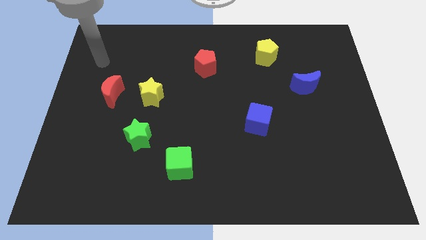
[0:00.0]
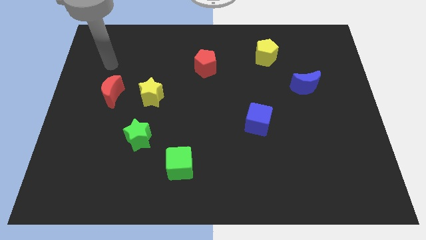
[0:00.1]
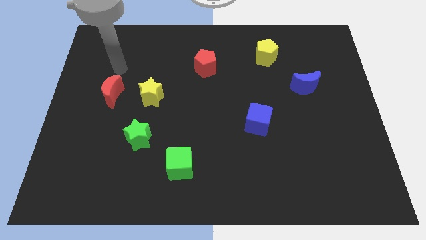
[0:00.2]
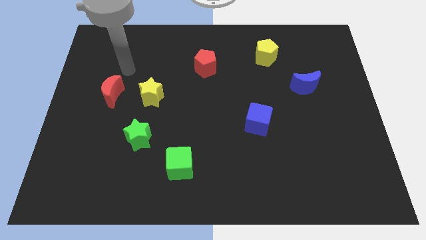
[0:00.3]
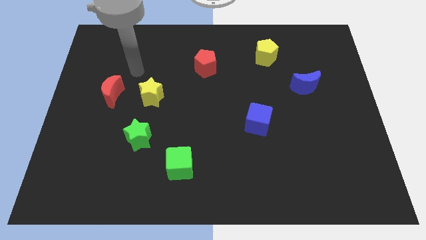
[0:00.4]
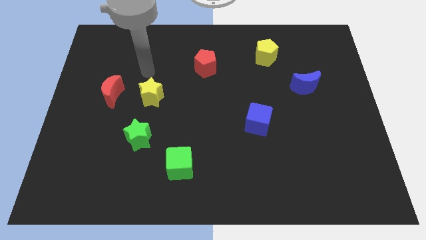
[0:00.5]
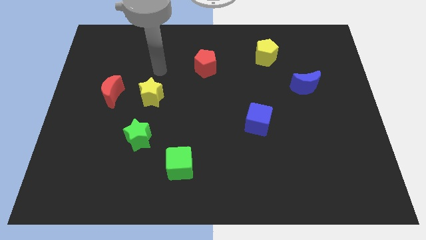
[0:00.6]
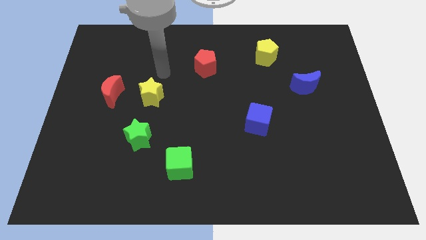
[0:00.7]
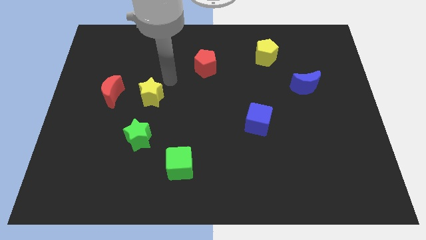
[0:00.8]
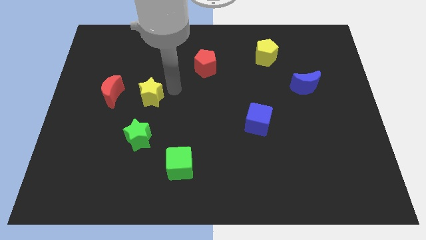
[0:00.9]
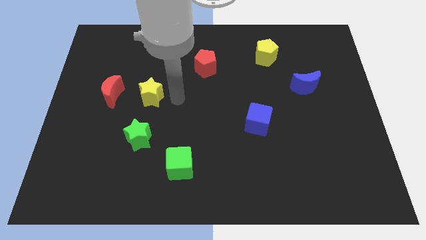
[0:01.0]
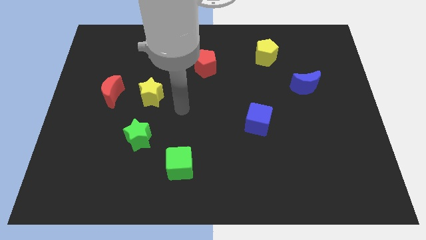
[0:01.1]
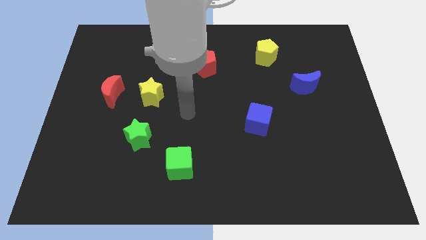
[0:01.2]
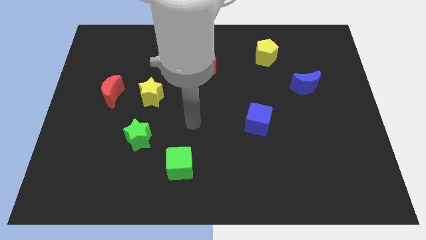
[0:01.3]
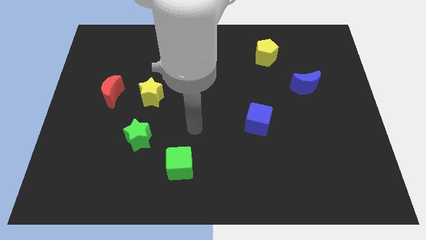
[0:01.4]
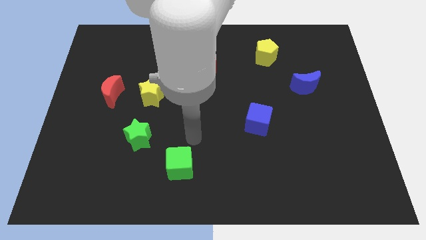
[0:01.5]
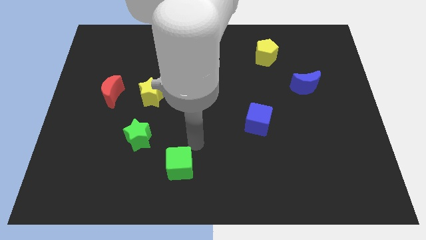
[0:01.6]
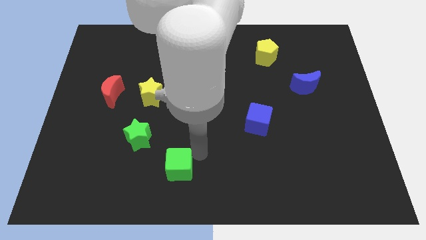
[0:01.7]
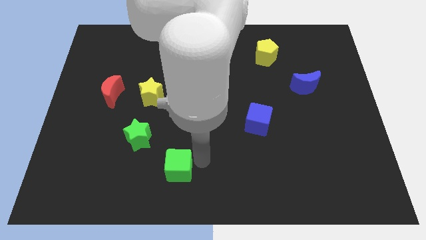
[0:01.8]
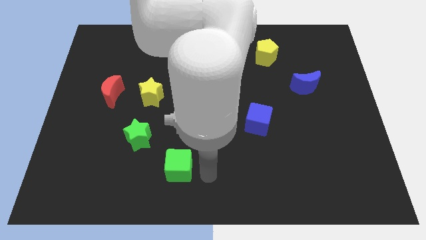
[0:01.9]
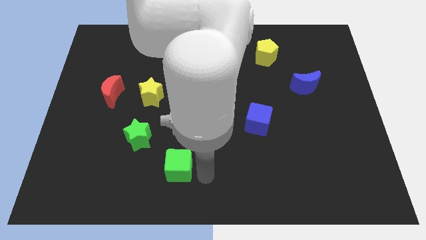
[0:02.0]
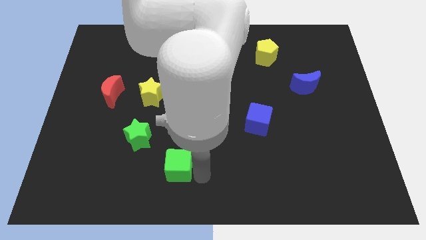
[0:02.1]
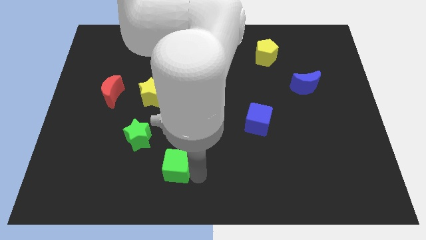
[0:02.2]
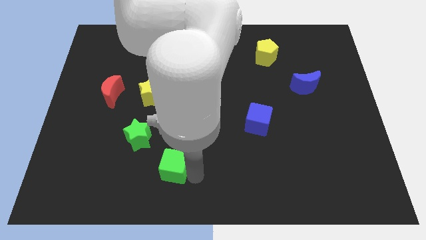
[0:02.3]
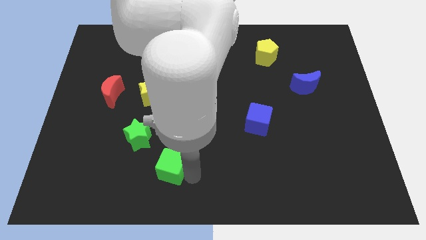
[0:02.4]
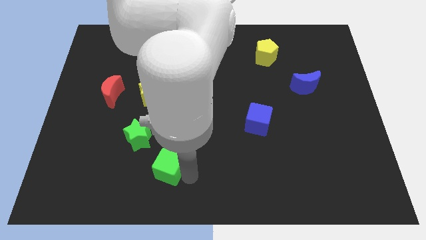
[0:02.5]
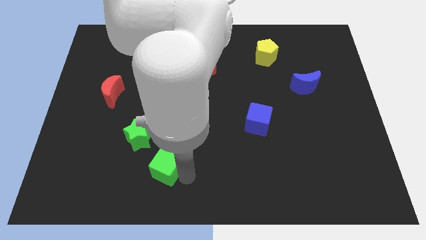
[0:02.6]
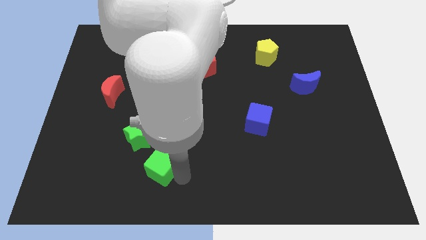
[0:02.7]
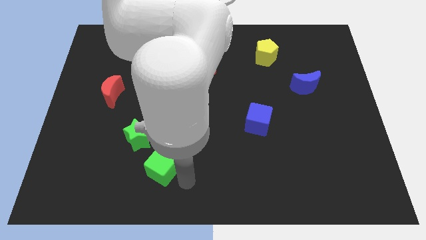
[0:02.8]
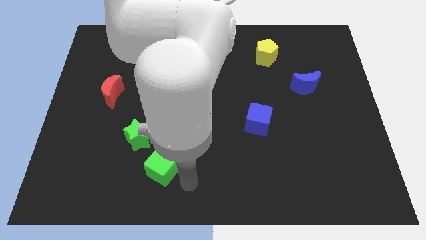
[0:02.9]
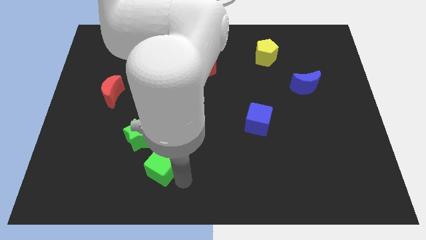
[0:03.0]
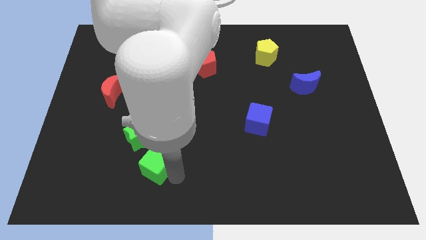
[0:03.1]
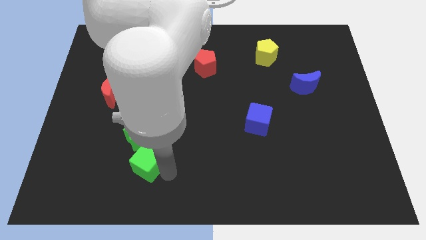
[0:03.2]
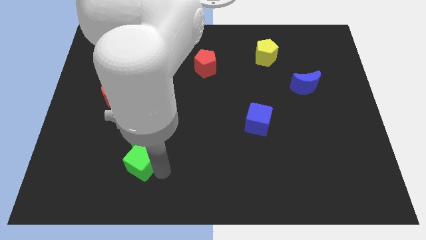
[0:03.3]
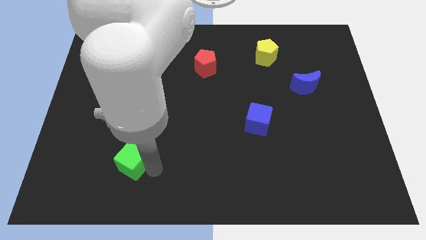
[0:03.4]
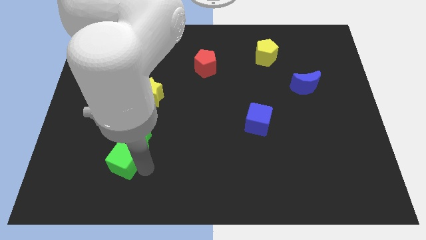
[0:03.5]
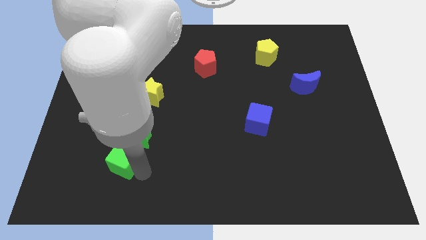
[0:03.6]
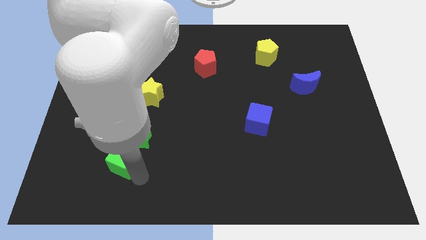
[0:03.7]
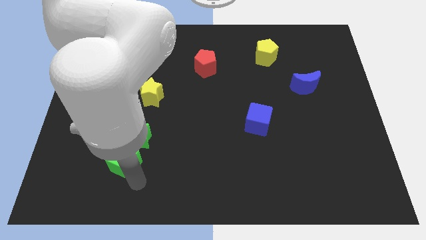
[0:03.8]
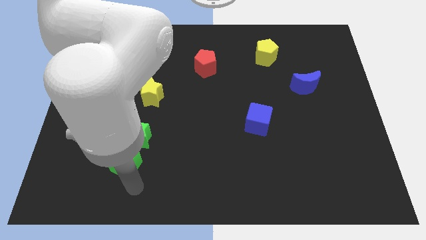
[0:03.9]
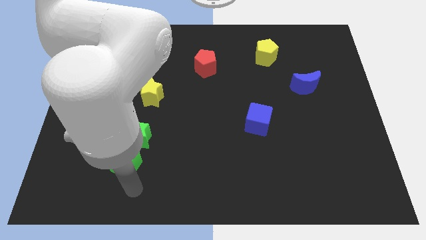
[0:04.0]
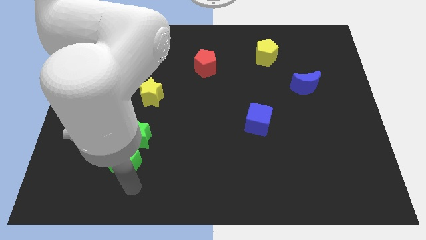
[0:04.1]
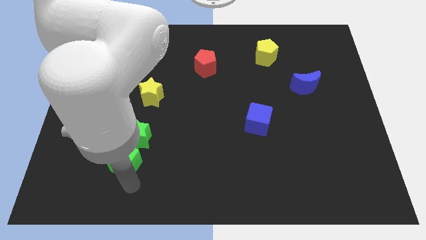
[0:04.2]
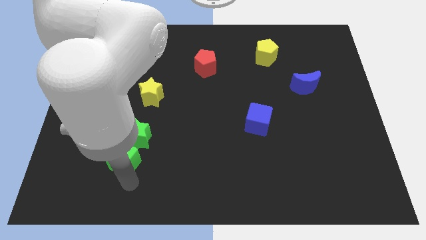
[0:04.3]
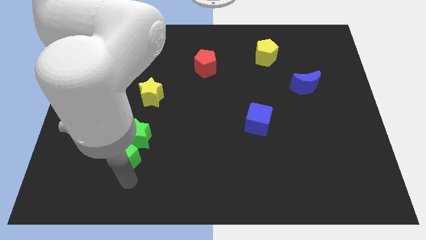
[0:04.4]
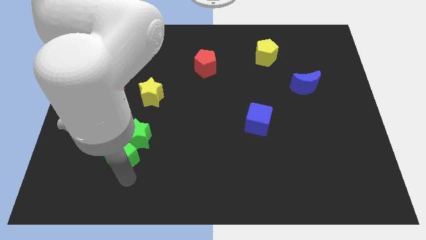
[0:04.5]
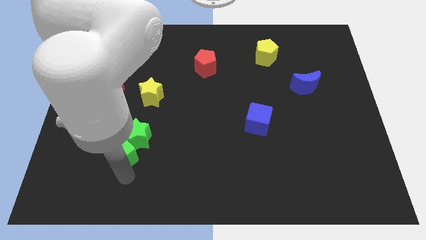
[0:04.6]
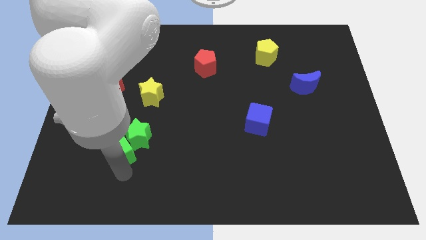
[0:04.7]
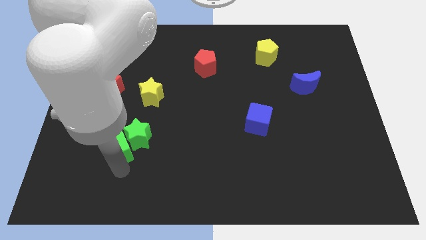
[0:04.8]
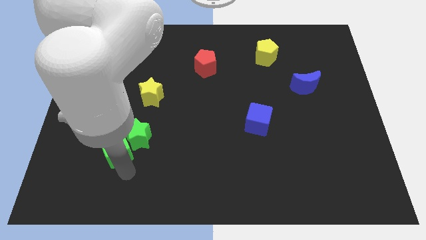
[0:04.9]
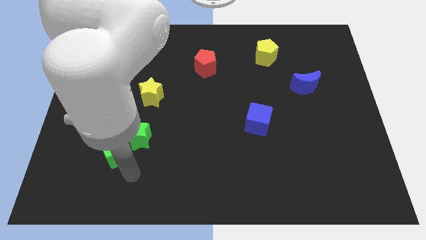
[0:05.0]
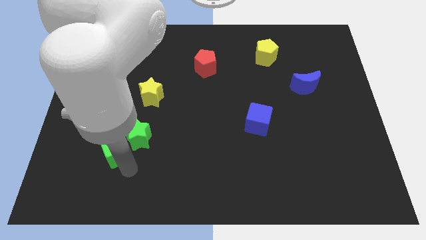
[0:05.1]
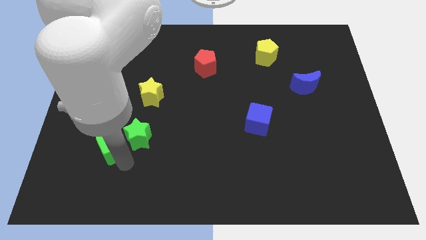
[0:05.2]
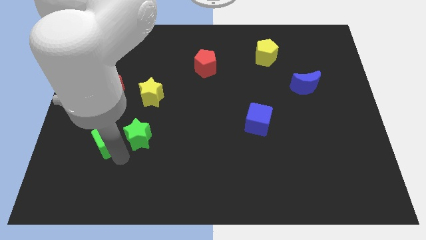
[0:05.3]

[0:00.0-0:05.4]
put the green cube to the bottom side of the red moon

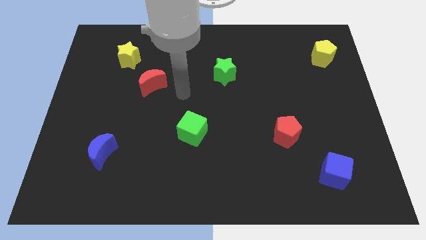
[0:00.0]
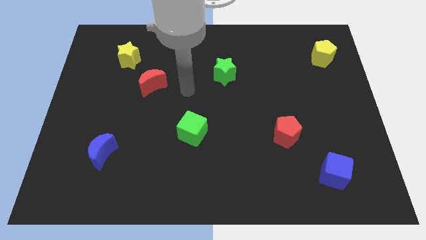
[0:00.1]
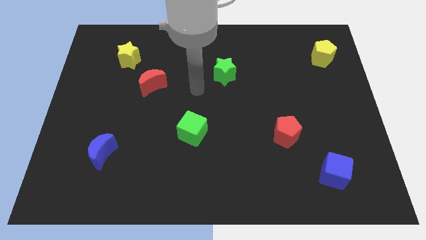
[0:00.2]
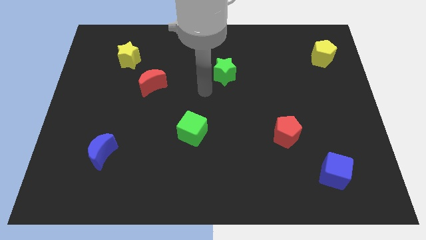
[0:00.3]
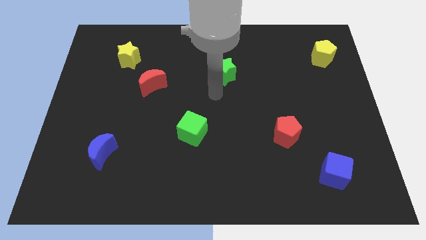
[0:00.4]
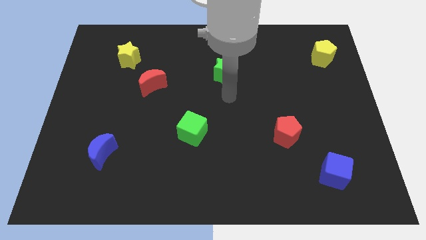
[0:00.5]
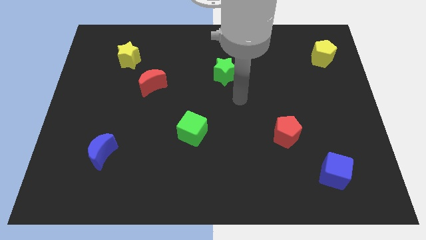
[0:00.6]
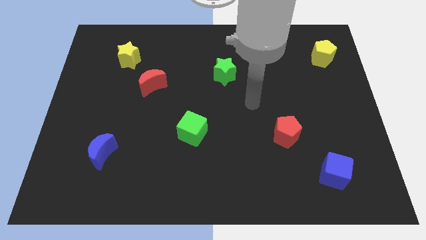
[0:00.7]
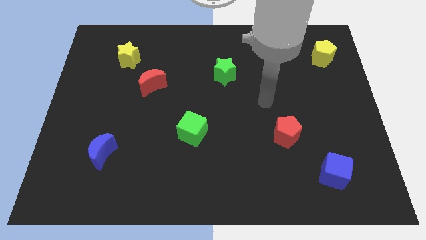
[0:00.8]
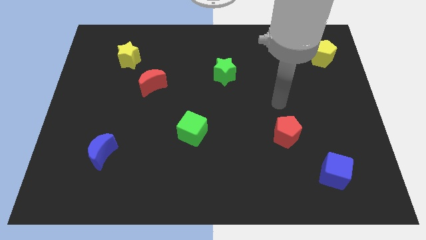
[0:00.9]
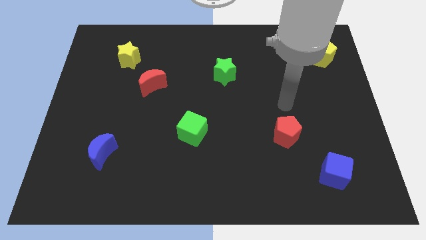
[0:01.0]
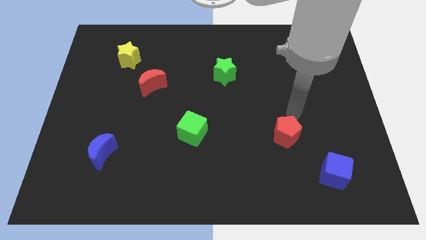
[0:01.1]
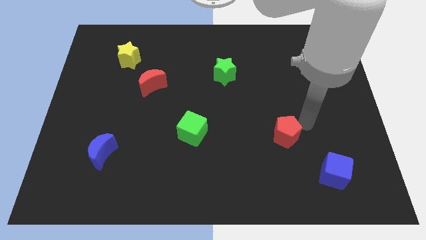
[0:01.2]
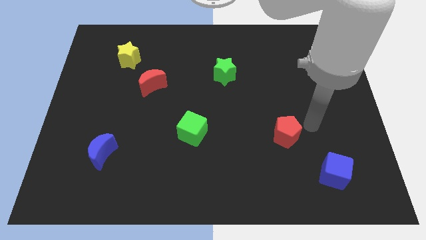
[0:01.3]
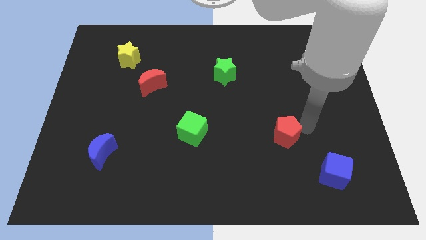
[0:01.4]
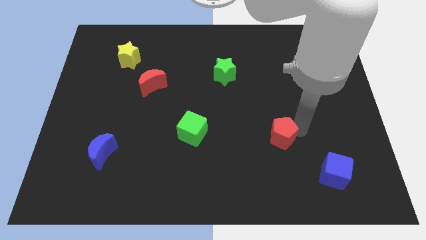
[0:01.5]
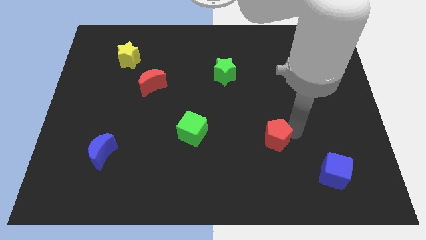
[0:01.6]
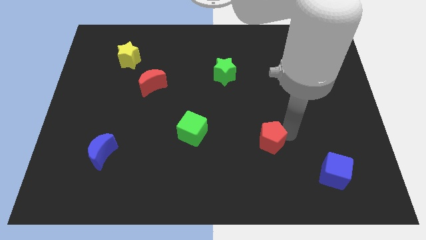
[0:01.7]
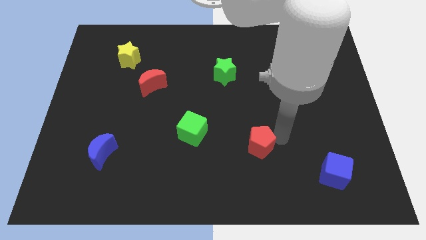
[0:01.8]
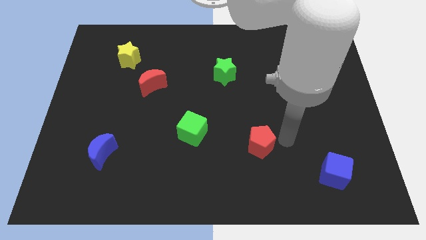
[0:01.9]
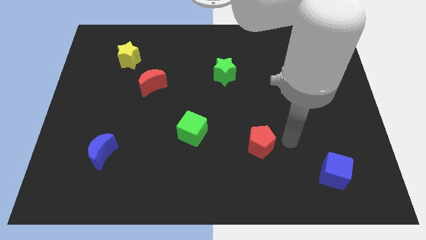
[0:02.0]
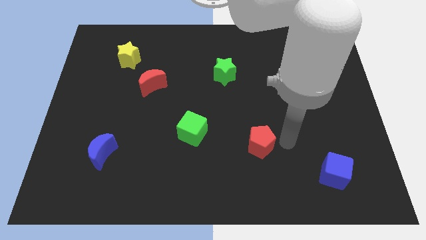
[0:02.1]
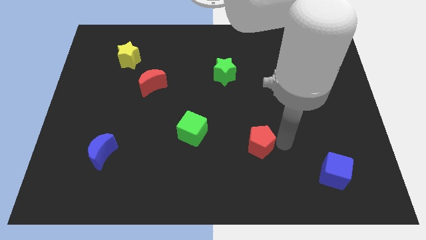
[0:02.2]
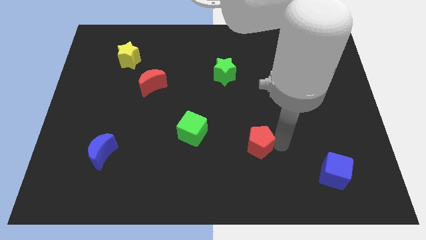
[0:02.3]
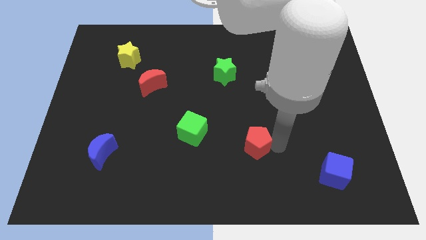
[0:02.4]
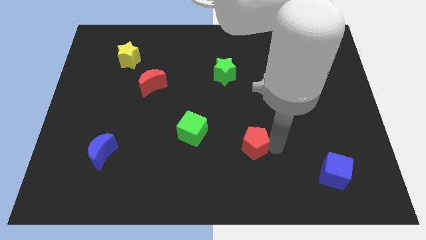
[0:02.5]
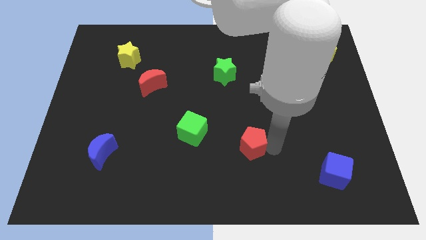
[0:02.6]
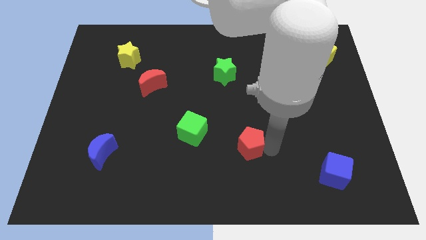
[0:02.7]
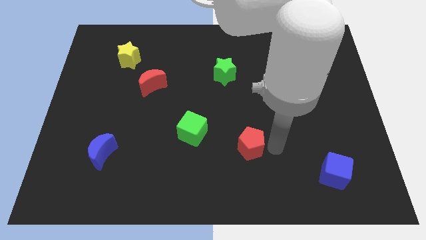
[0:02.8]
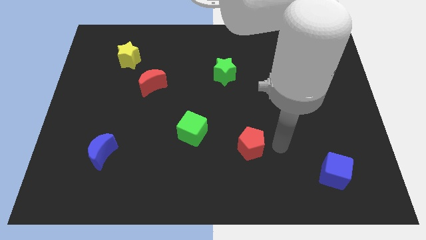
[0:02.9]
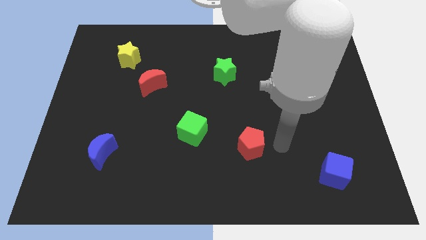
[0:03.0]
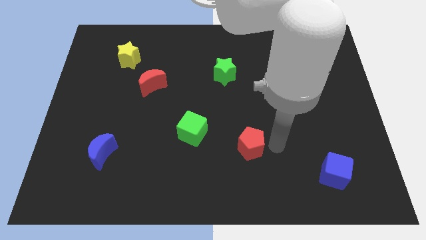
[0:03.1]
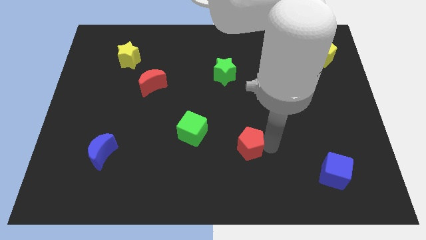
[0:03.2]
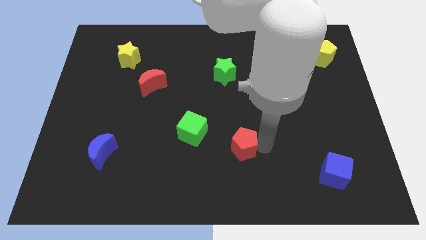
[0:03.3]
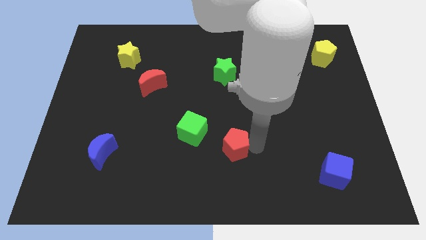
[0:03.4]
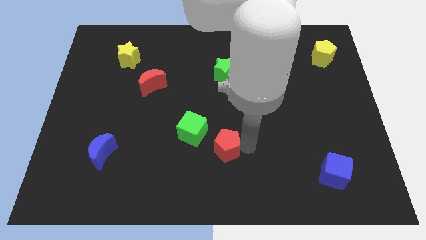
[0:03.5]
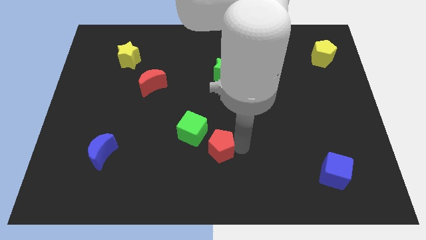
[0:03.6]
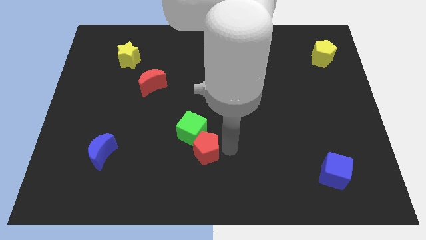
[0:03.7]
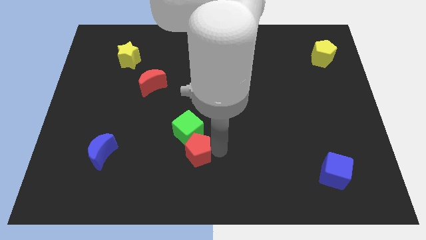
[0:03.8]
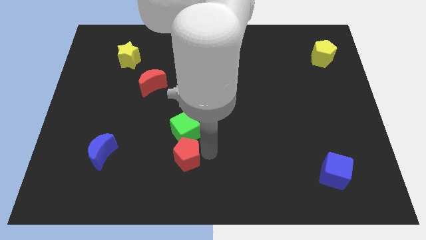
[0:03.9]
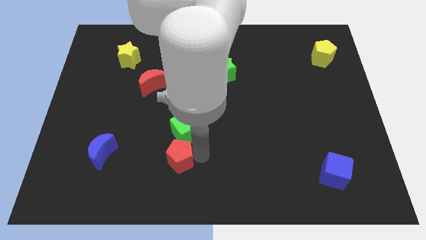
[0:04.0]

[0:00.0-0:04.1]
move the red pentagon to the bottom left of the green cube
